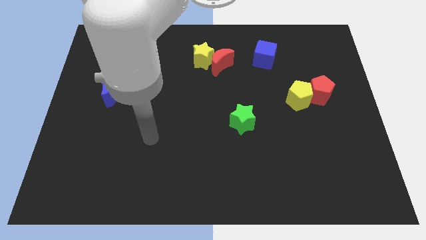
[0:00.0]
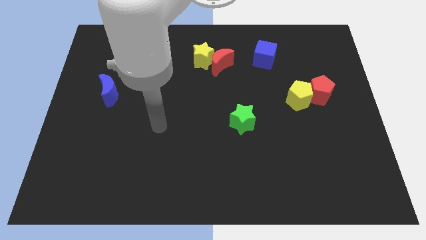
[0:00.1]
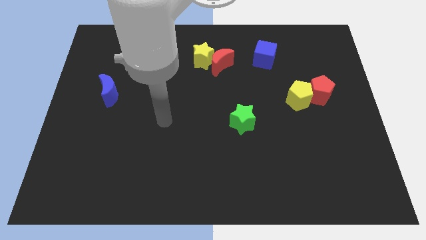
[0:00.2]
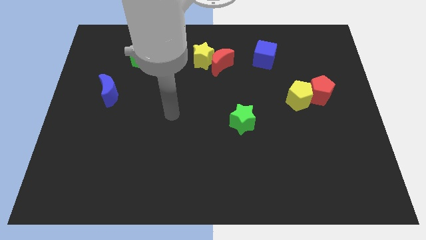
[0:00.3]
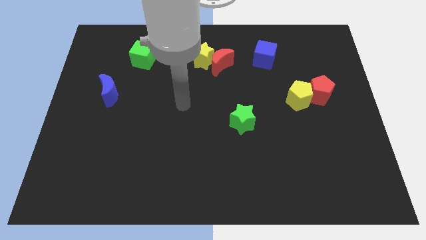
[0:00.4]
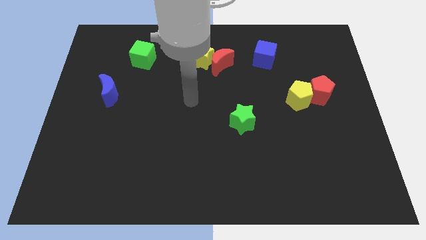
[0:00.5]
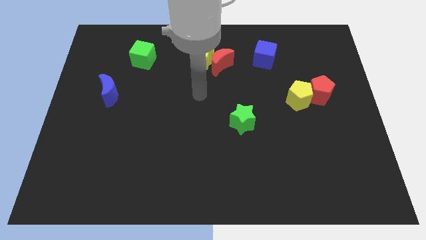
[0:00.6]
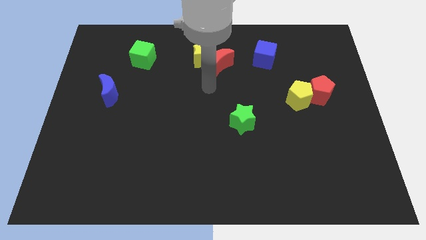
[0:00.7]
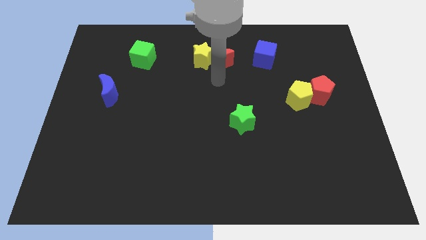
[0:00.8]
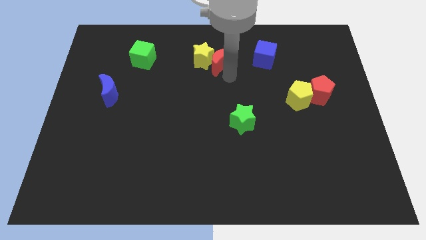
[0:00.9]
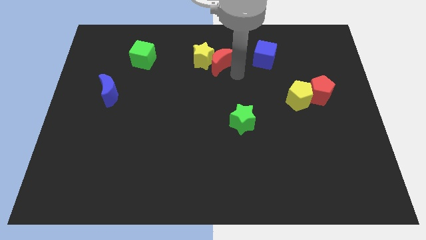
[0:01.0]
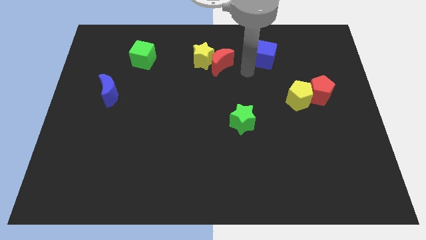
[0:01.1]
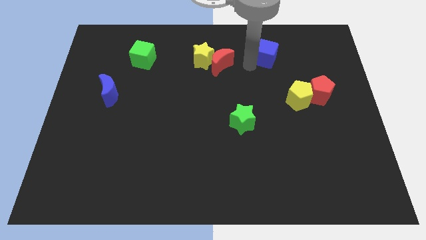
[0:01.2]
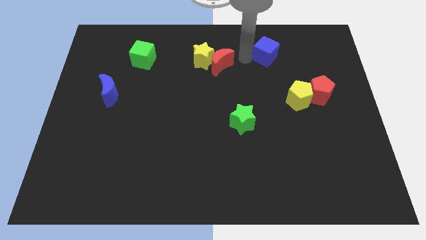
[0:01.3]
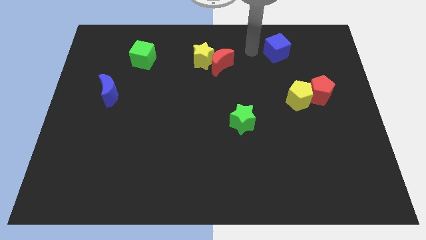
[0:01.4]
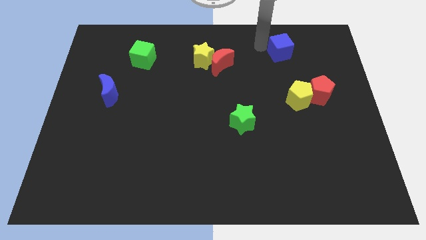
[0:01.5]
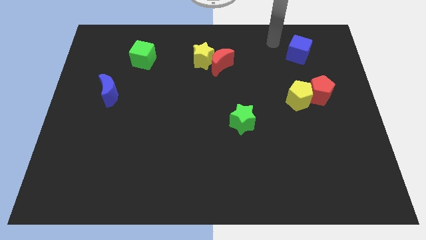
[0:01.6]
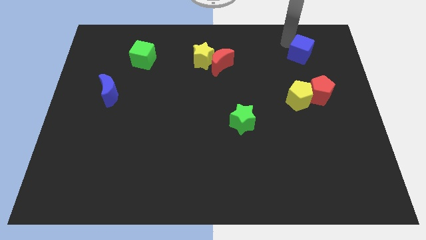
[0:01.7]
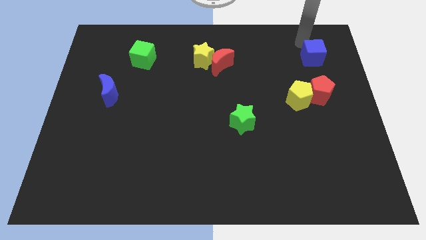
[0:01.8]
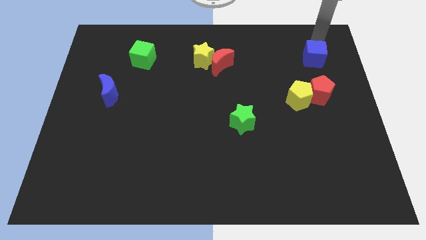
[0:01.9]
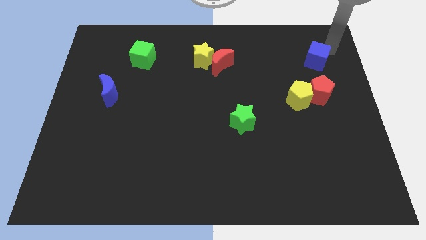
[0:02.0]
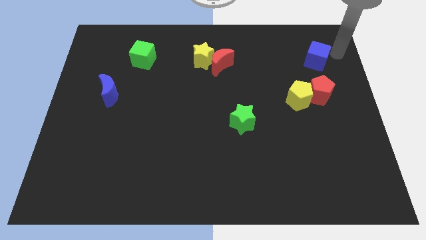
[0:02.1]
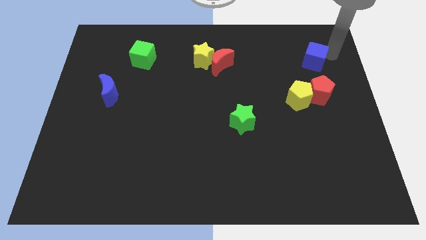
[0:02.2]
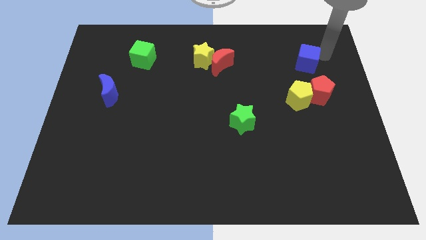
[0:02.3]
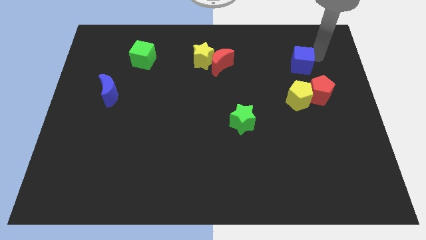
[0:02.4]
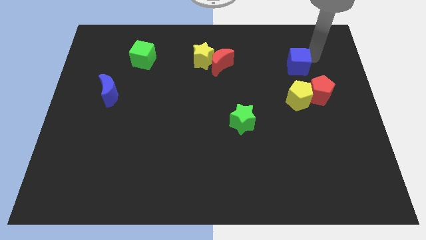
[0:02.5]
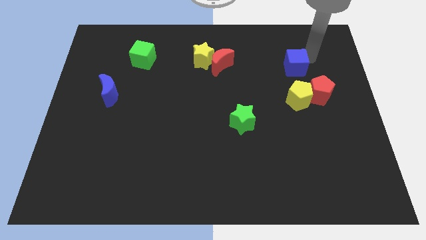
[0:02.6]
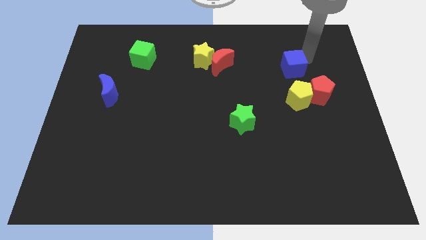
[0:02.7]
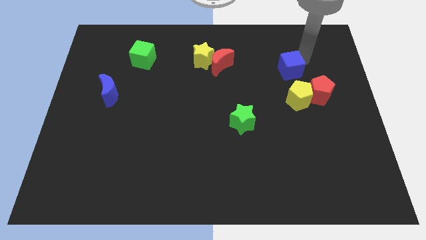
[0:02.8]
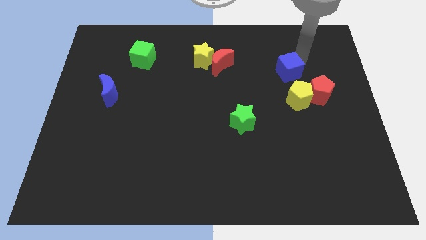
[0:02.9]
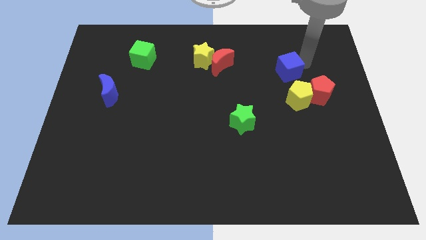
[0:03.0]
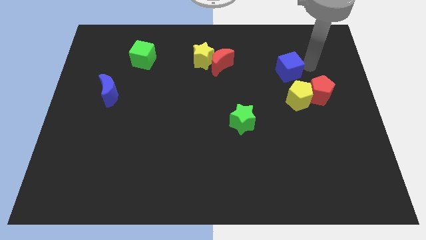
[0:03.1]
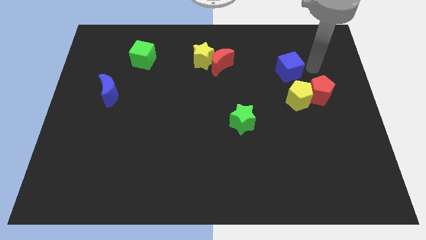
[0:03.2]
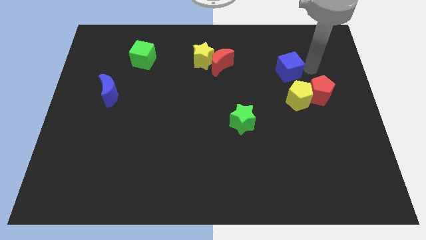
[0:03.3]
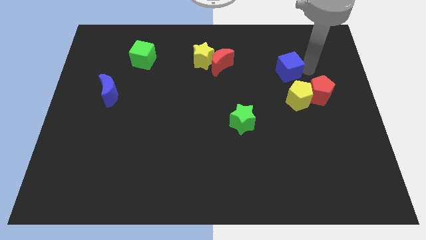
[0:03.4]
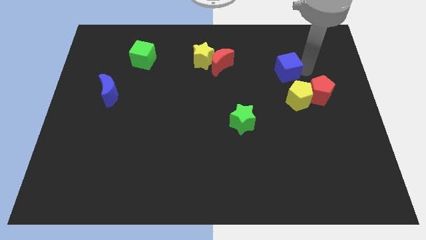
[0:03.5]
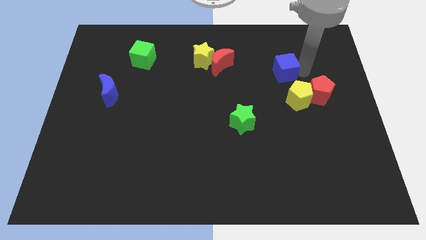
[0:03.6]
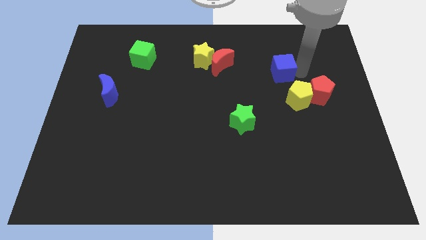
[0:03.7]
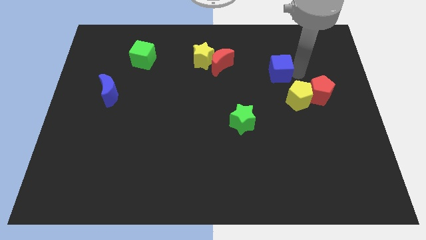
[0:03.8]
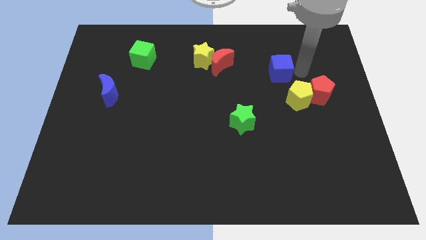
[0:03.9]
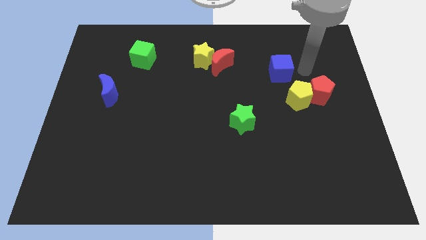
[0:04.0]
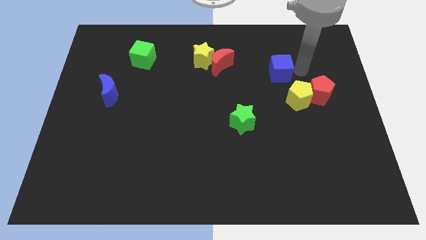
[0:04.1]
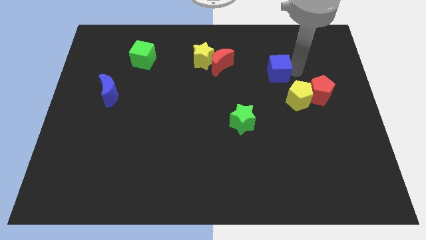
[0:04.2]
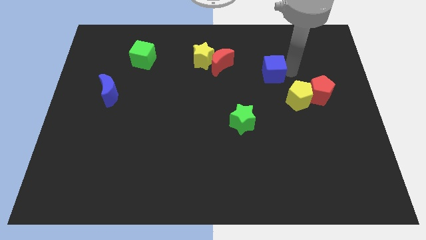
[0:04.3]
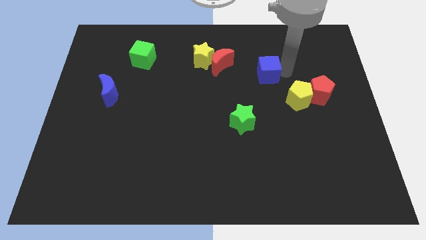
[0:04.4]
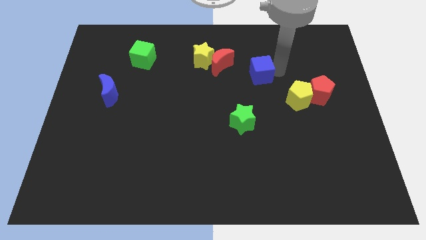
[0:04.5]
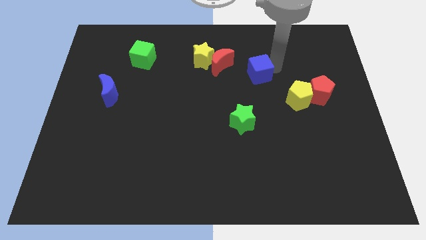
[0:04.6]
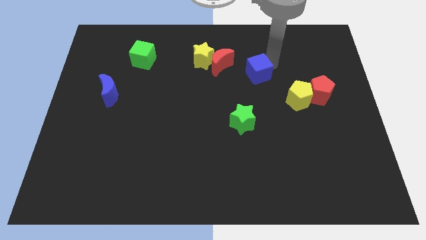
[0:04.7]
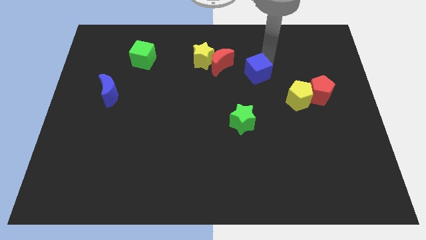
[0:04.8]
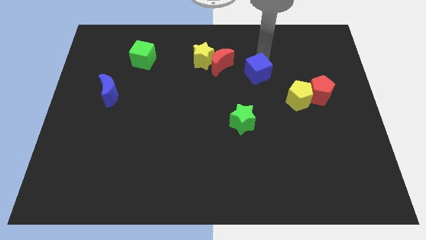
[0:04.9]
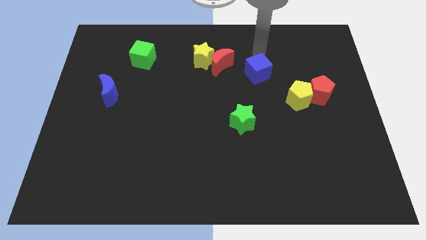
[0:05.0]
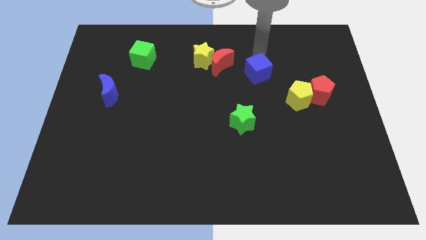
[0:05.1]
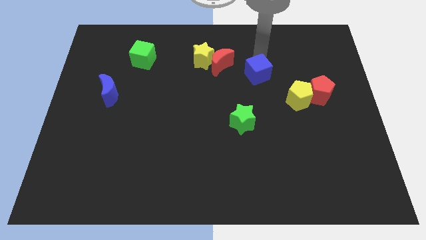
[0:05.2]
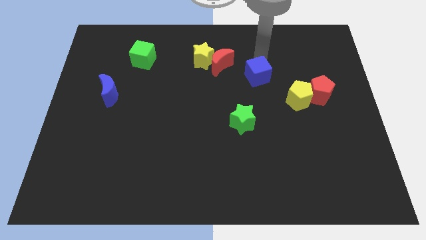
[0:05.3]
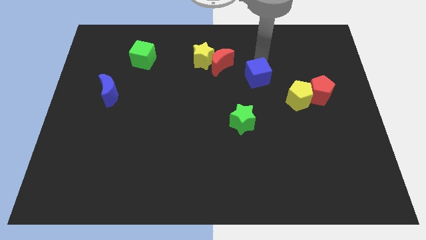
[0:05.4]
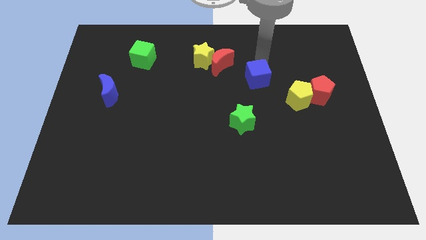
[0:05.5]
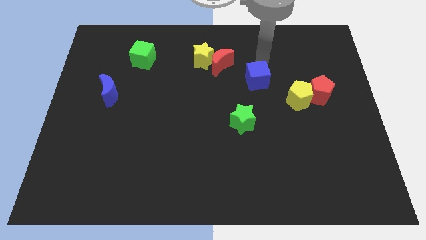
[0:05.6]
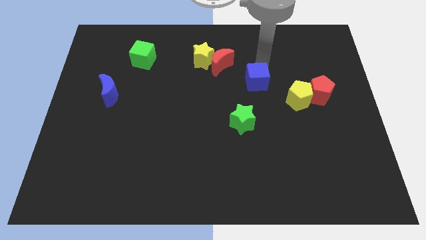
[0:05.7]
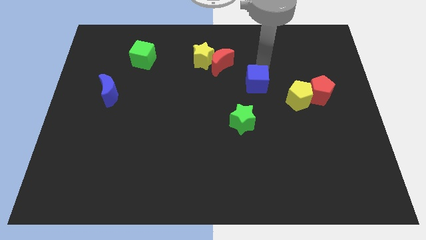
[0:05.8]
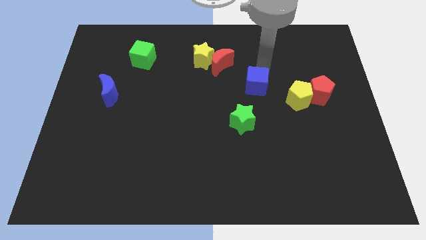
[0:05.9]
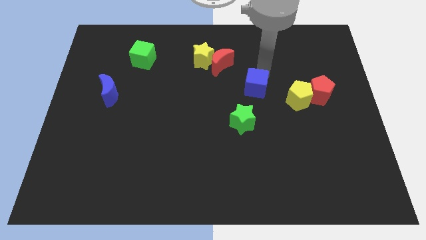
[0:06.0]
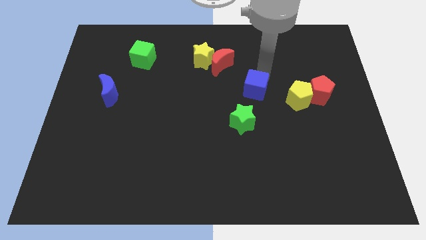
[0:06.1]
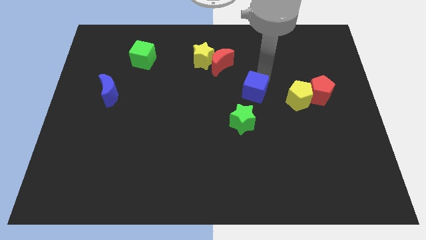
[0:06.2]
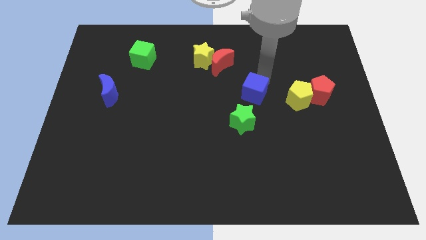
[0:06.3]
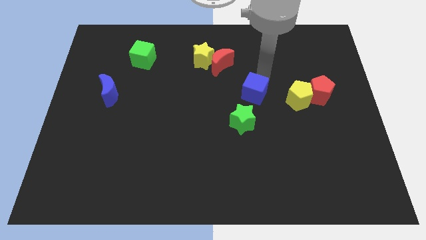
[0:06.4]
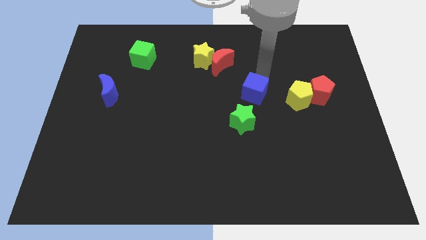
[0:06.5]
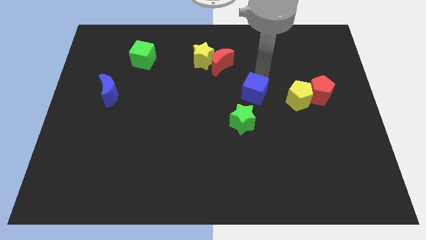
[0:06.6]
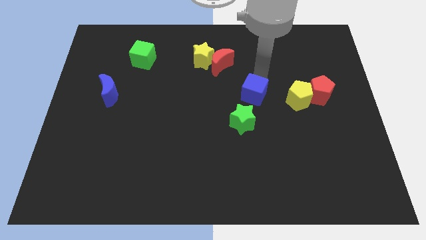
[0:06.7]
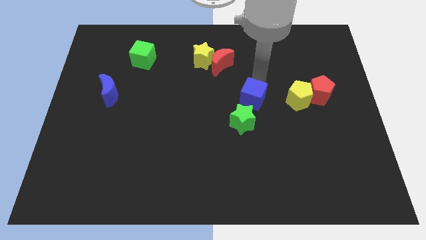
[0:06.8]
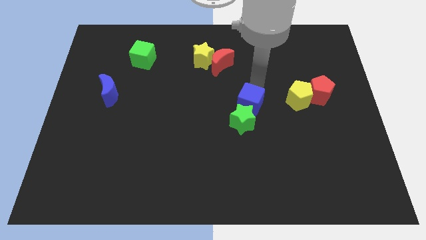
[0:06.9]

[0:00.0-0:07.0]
push the blue cube to the green star

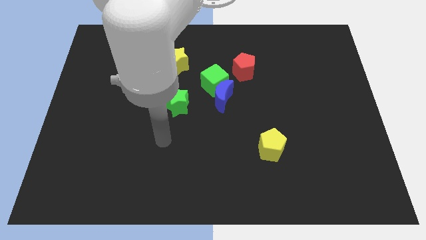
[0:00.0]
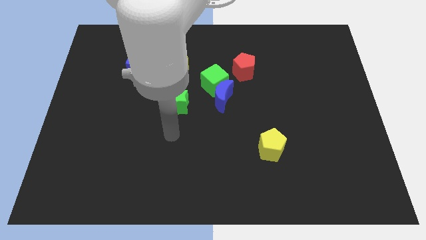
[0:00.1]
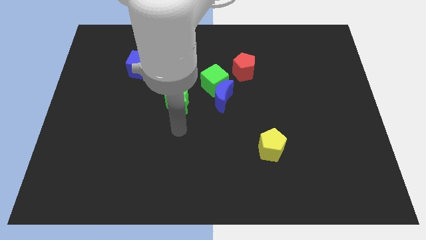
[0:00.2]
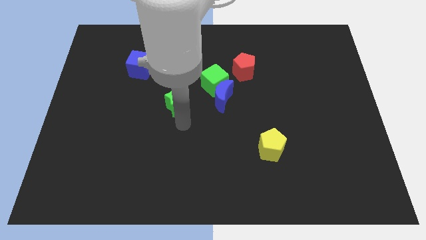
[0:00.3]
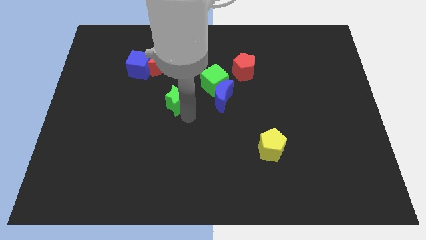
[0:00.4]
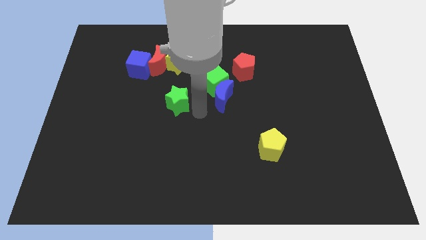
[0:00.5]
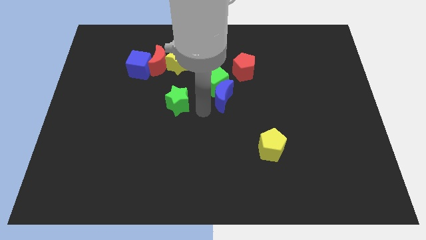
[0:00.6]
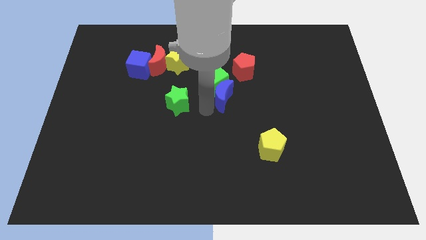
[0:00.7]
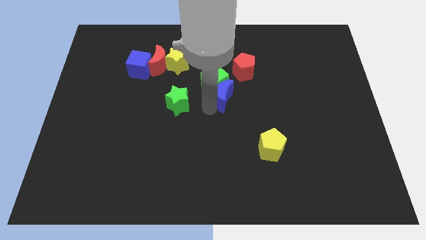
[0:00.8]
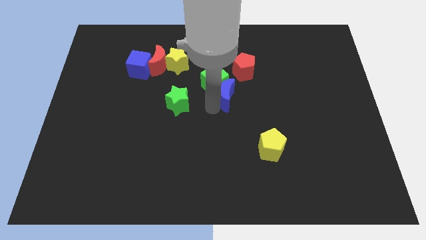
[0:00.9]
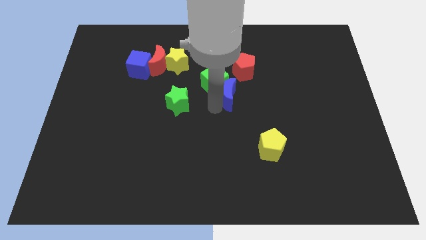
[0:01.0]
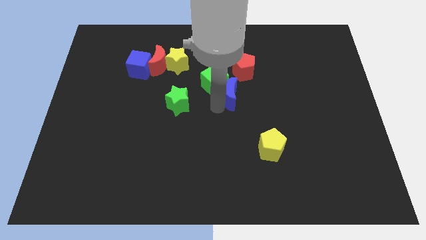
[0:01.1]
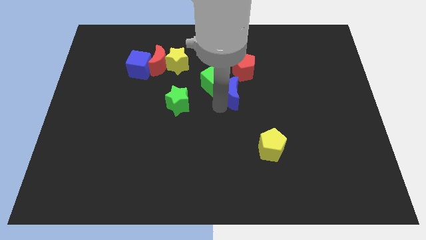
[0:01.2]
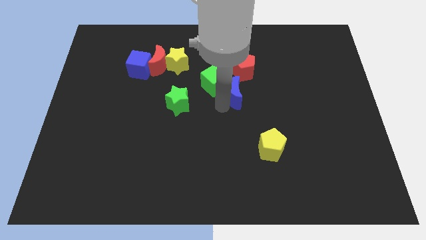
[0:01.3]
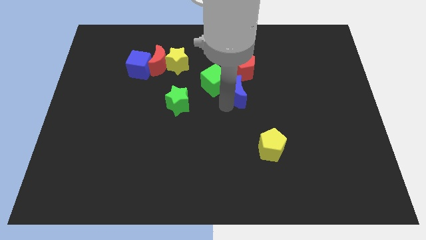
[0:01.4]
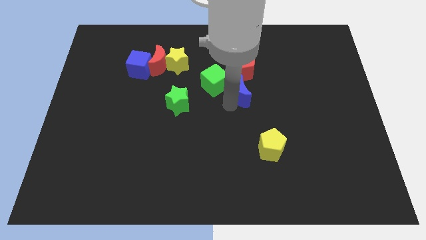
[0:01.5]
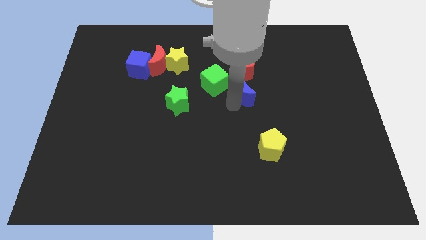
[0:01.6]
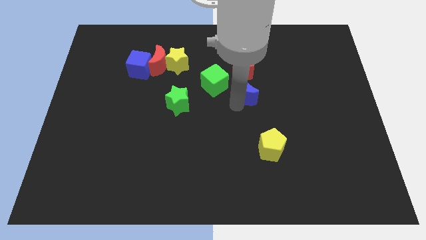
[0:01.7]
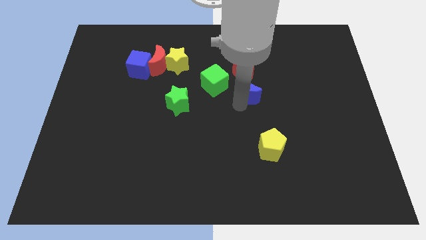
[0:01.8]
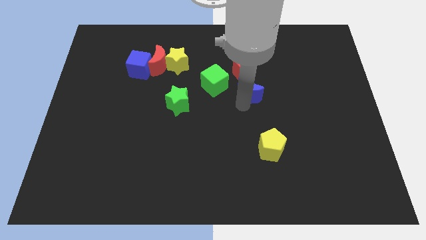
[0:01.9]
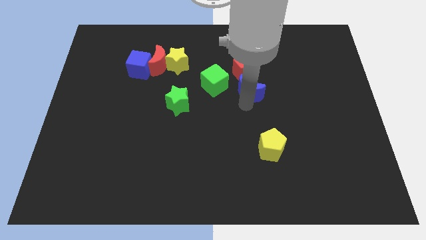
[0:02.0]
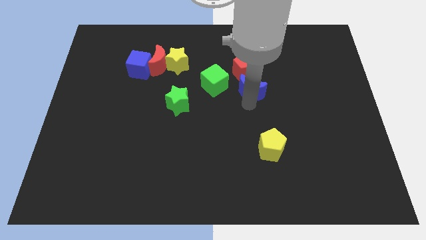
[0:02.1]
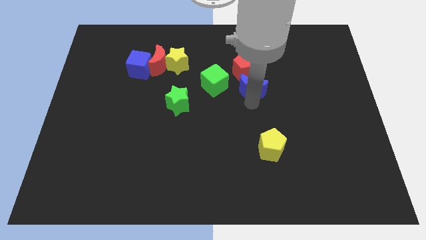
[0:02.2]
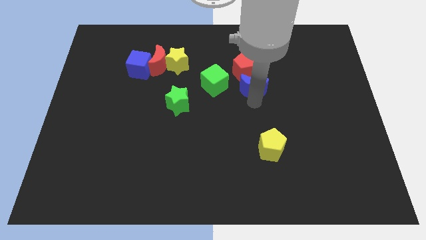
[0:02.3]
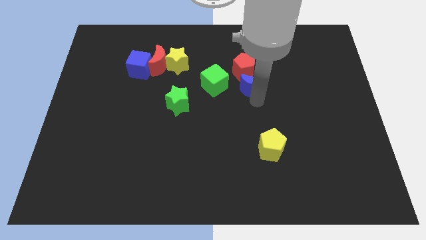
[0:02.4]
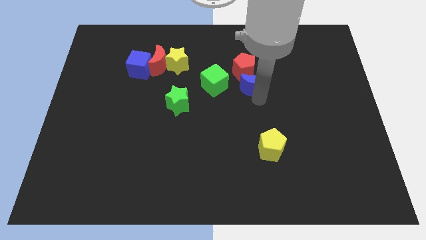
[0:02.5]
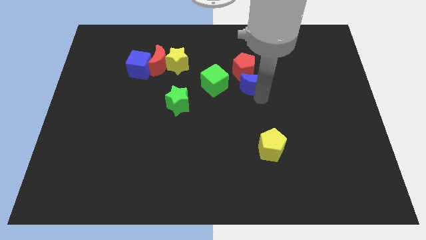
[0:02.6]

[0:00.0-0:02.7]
push the blue moon towards the red pentagon
